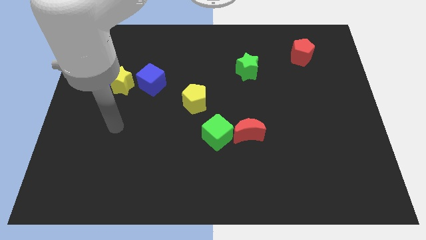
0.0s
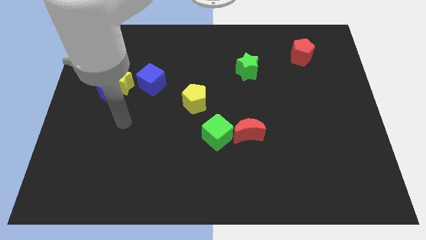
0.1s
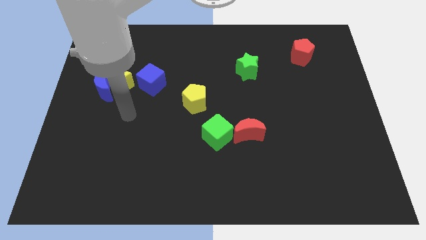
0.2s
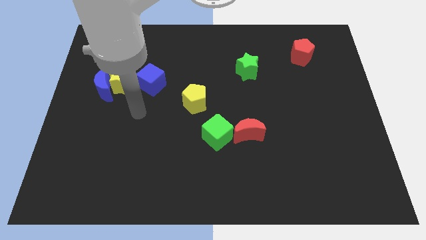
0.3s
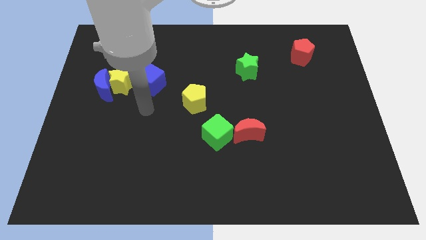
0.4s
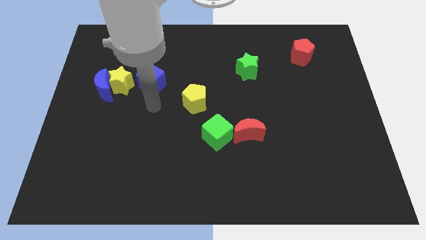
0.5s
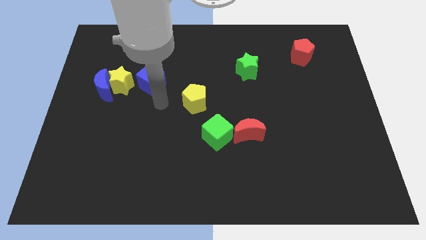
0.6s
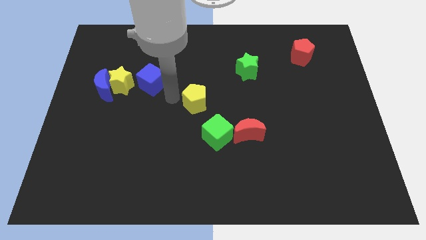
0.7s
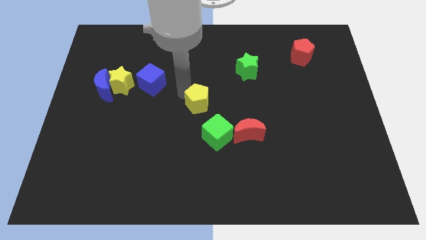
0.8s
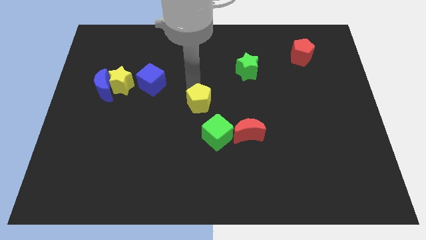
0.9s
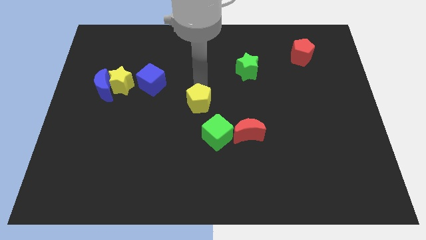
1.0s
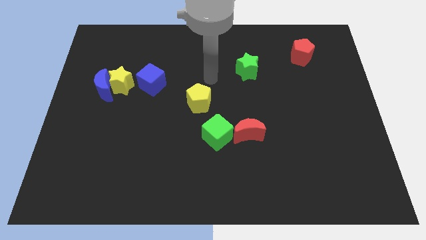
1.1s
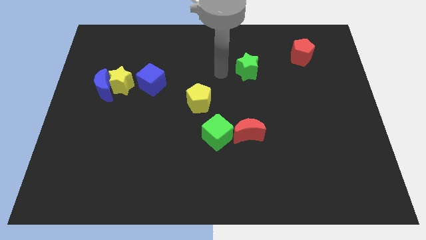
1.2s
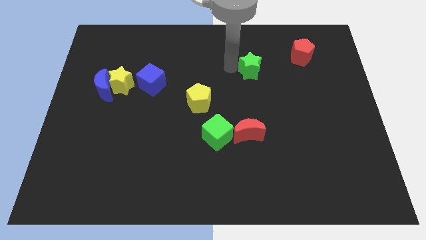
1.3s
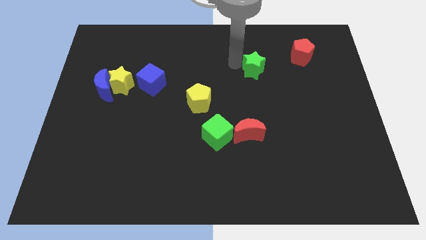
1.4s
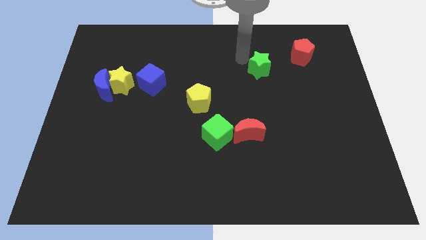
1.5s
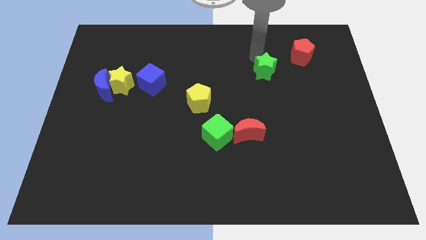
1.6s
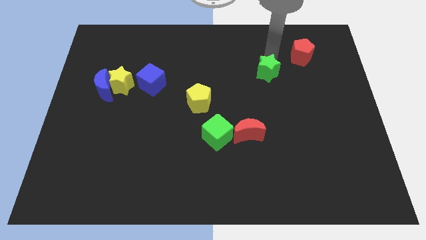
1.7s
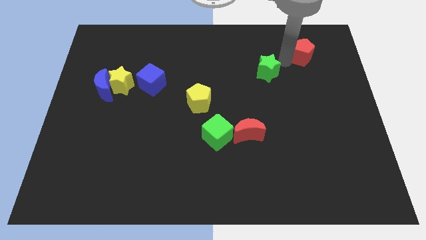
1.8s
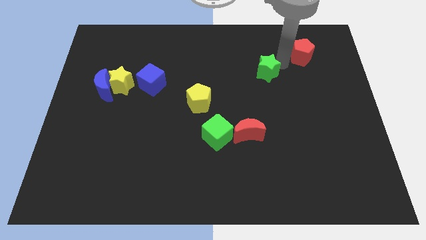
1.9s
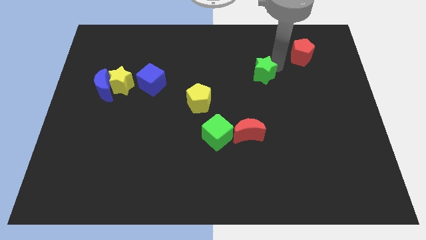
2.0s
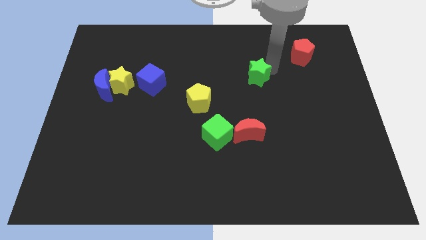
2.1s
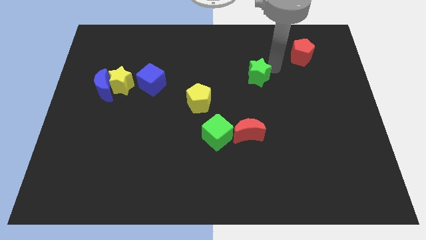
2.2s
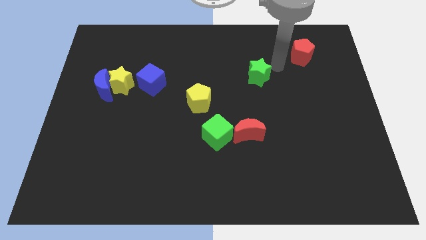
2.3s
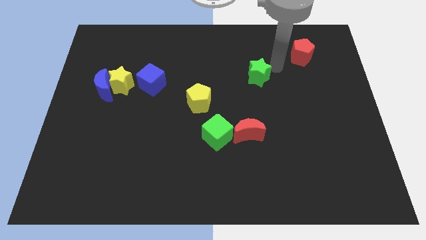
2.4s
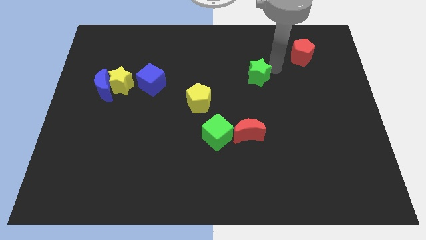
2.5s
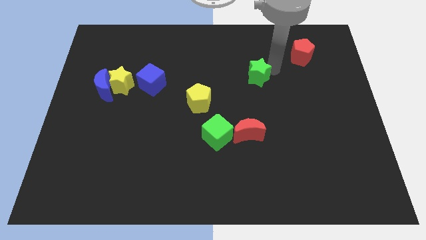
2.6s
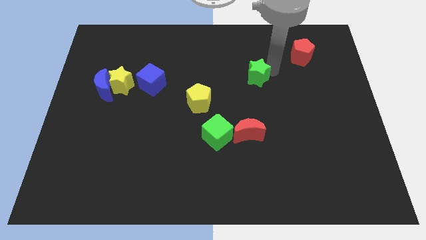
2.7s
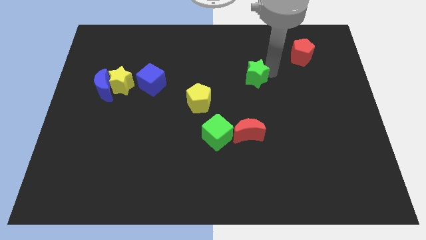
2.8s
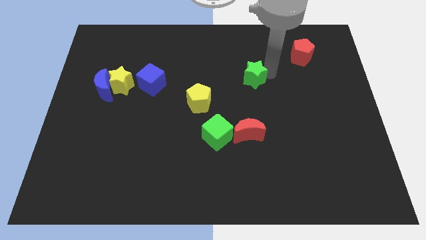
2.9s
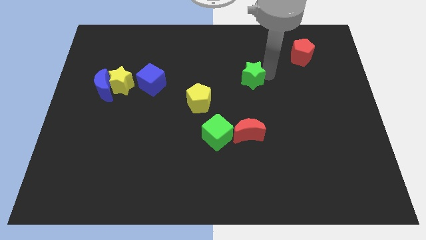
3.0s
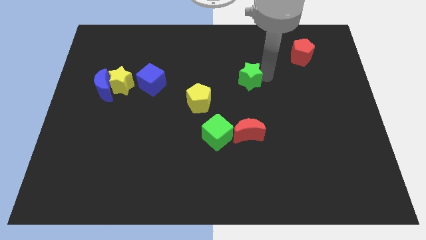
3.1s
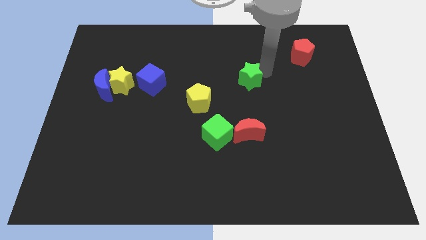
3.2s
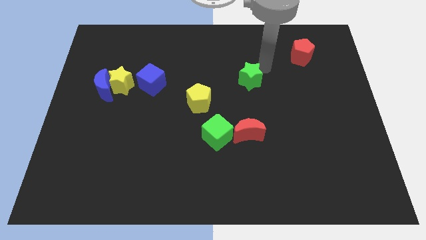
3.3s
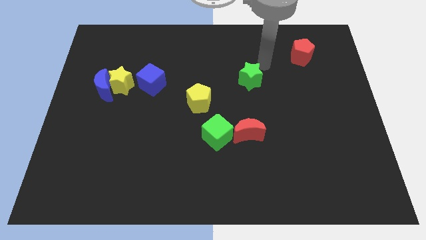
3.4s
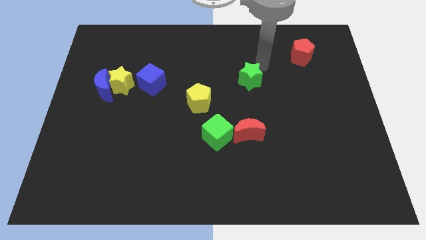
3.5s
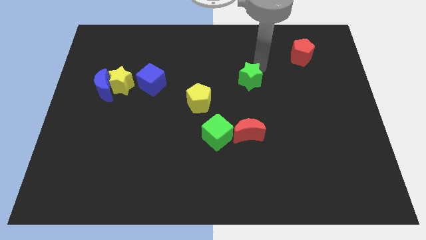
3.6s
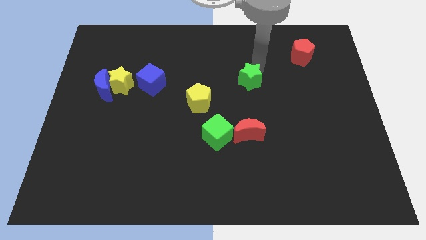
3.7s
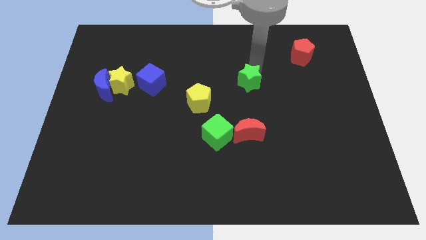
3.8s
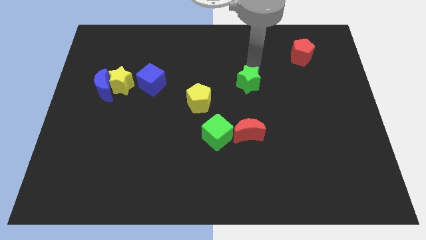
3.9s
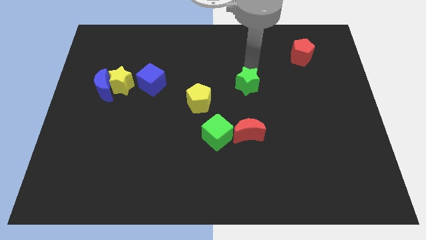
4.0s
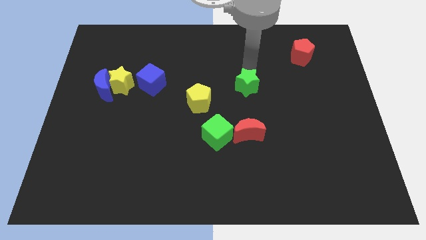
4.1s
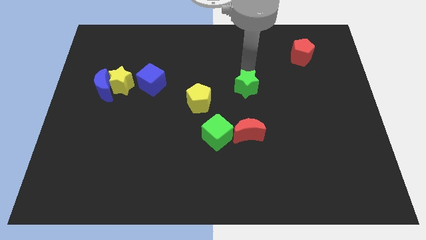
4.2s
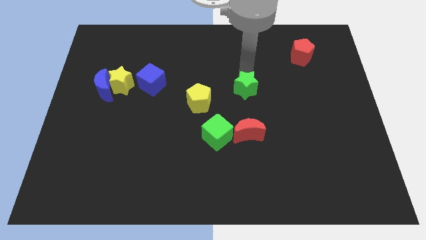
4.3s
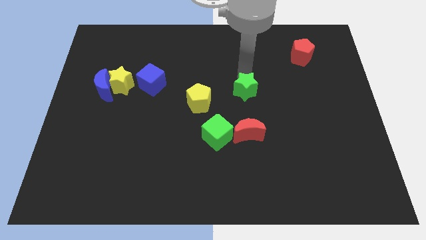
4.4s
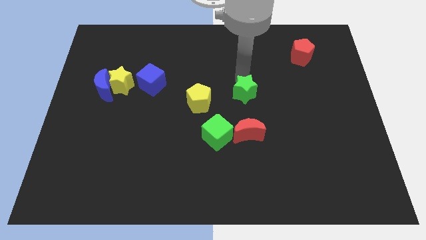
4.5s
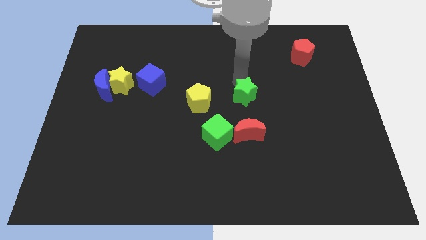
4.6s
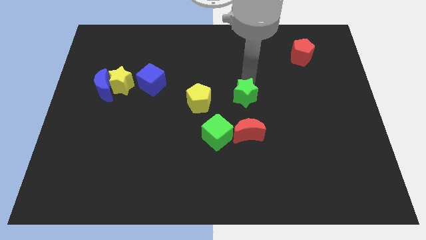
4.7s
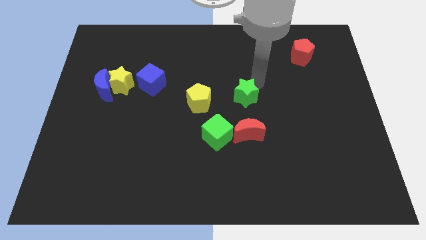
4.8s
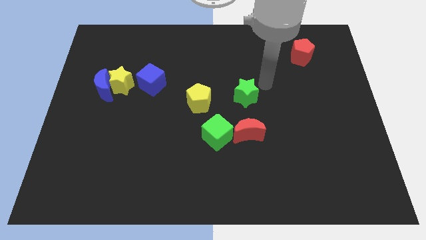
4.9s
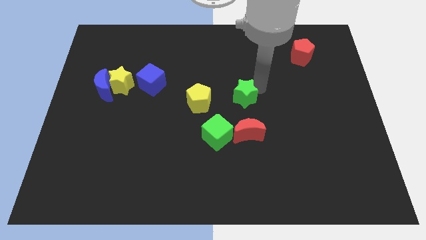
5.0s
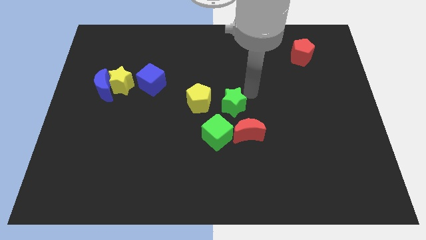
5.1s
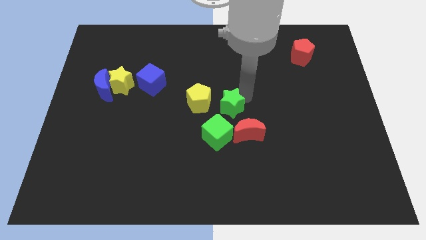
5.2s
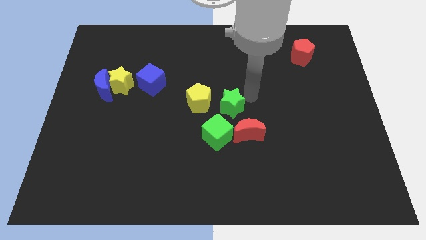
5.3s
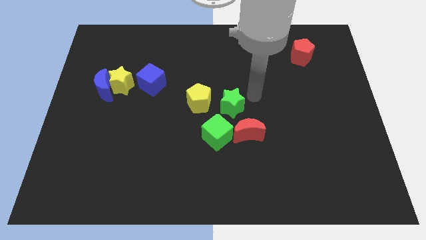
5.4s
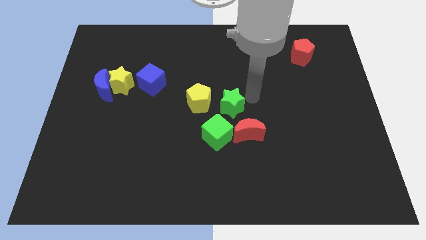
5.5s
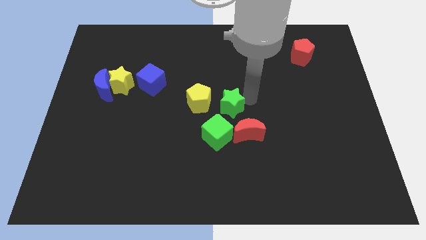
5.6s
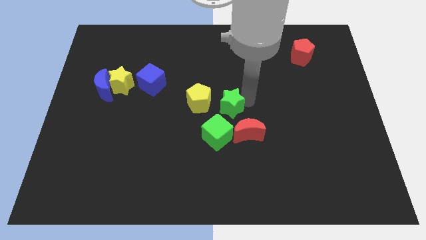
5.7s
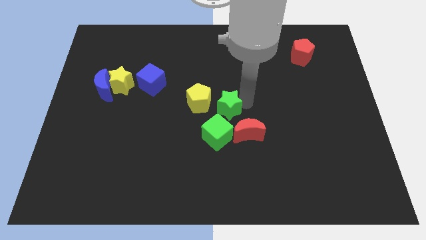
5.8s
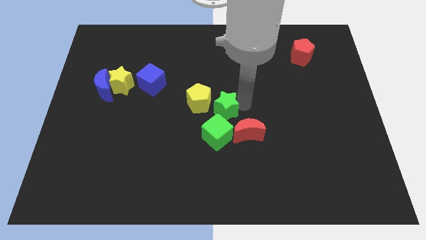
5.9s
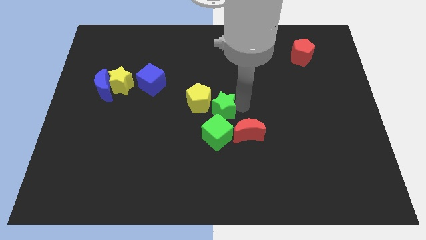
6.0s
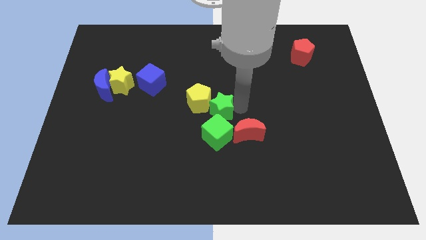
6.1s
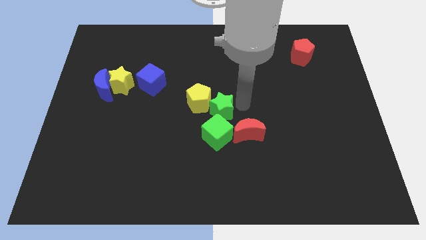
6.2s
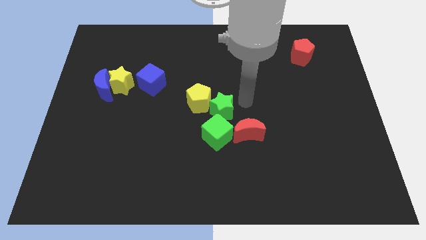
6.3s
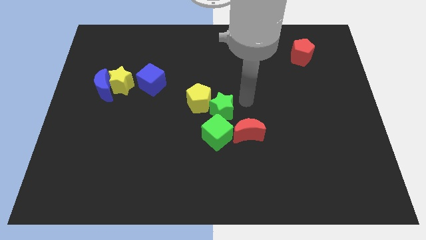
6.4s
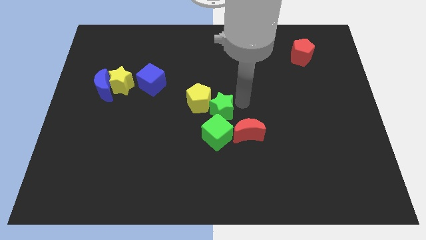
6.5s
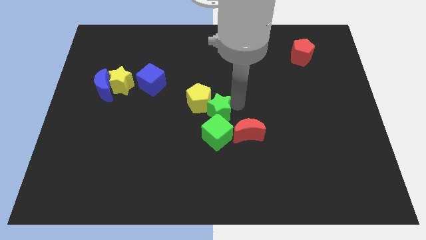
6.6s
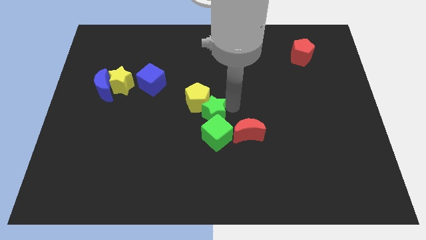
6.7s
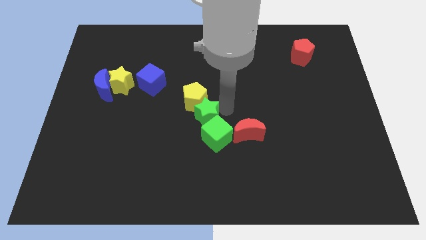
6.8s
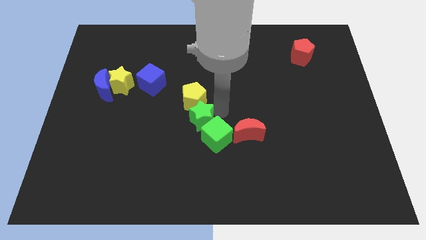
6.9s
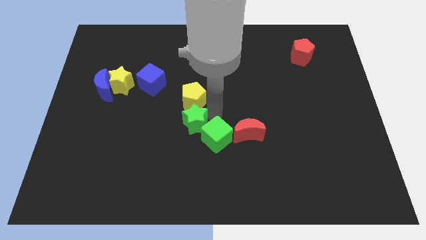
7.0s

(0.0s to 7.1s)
put the green star to the bottom left side of the yellow pentagon

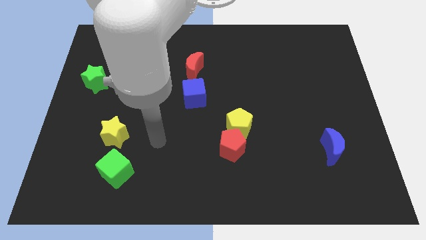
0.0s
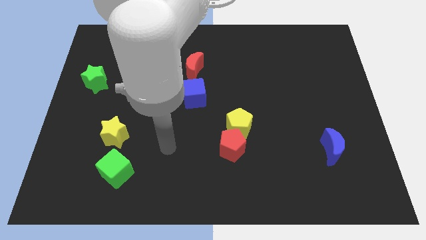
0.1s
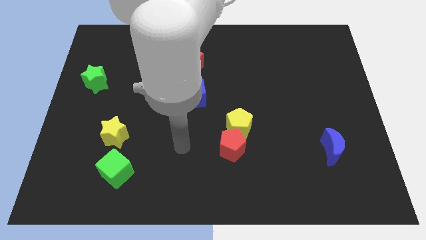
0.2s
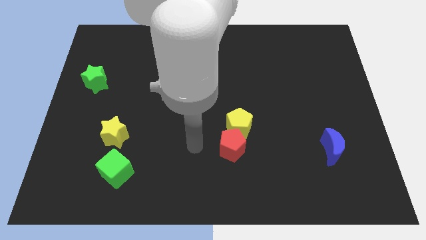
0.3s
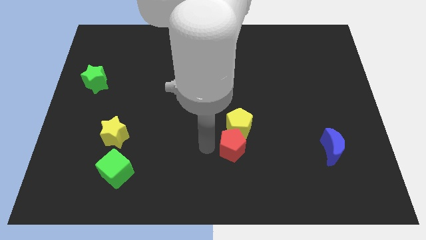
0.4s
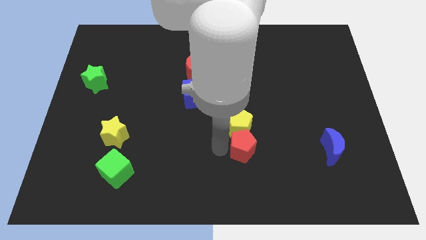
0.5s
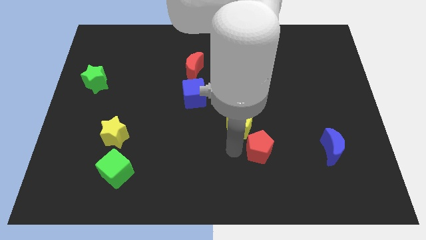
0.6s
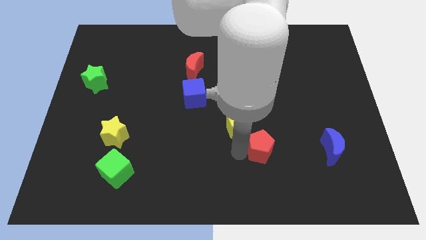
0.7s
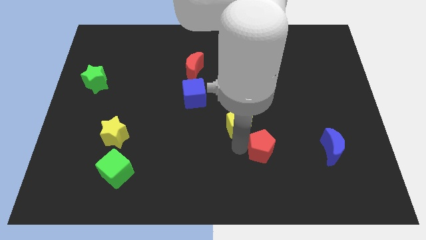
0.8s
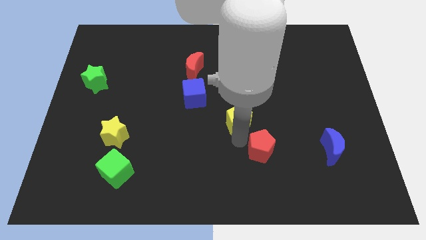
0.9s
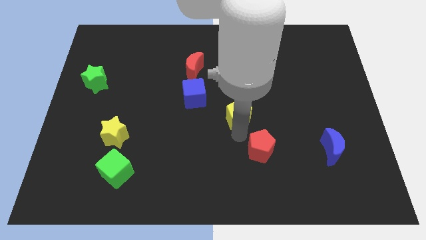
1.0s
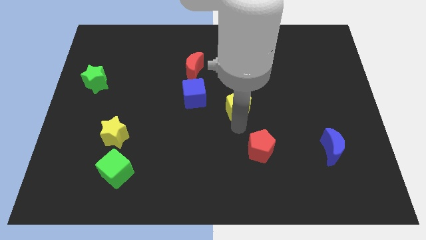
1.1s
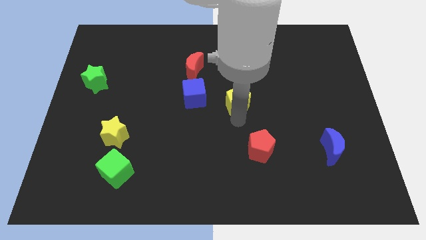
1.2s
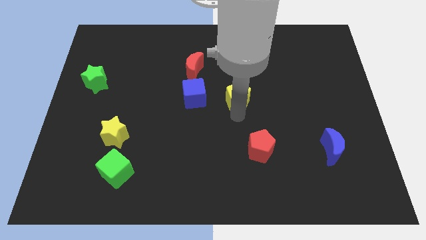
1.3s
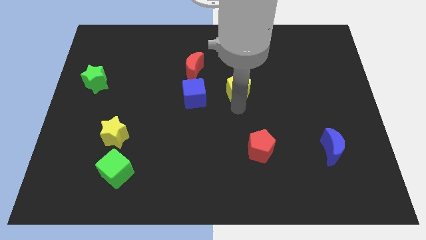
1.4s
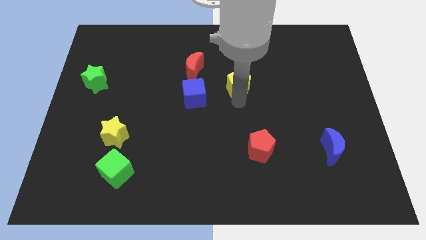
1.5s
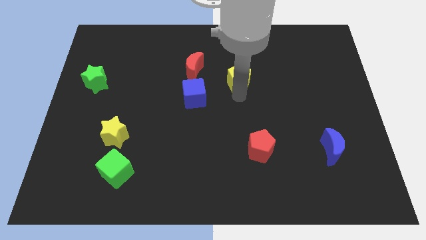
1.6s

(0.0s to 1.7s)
push the yellow pentagon just right of the red moon
